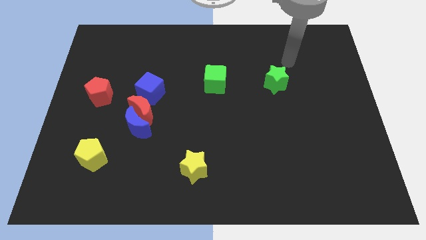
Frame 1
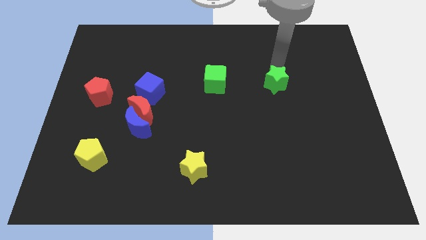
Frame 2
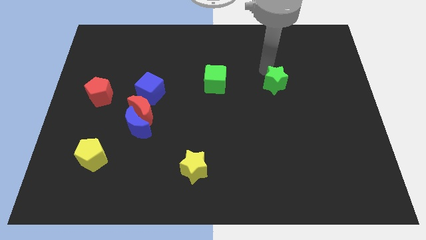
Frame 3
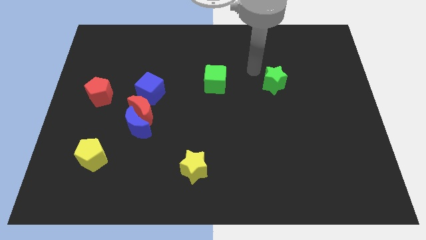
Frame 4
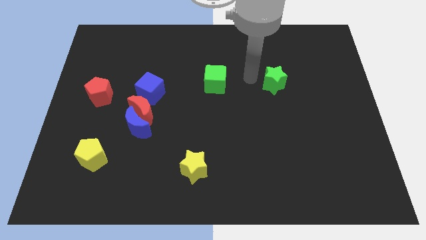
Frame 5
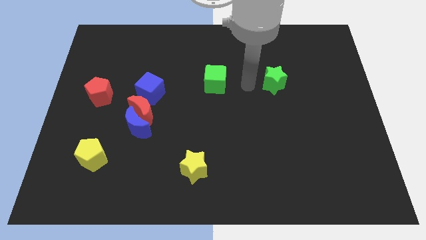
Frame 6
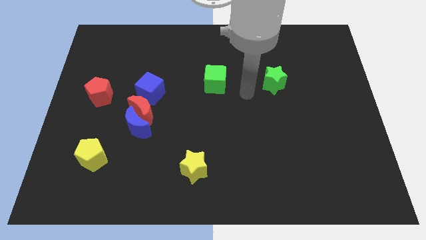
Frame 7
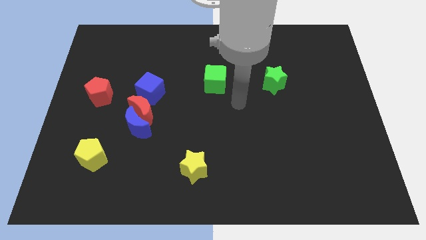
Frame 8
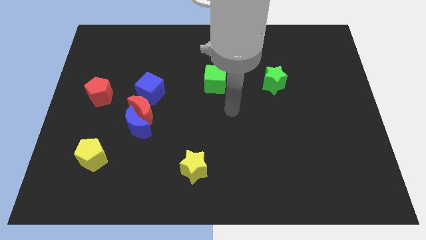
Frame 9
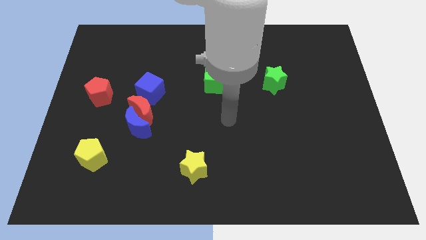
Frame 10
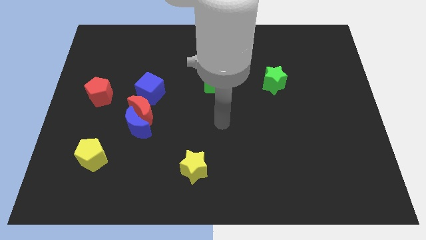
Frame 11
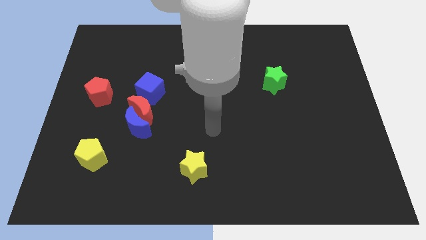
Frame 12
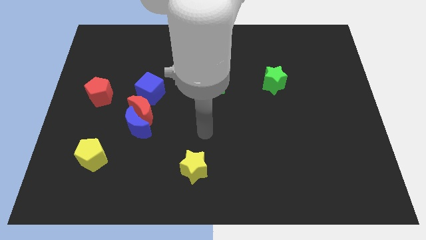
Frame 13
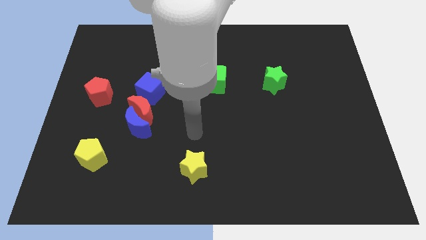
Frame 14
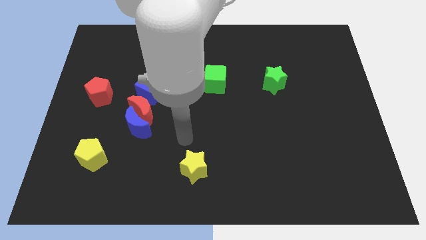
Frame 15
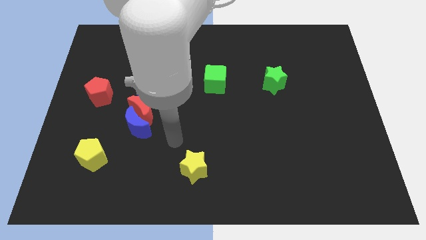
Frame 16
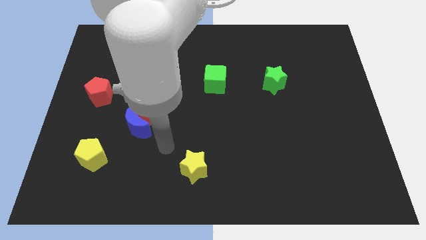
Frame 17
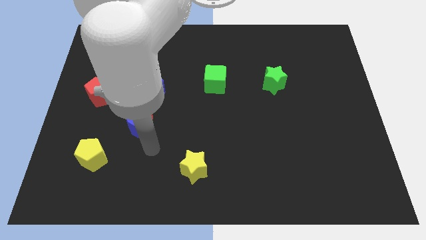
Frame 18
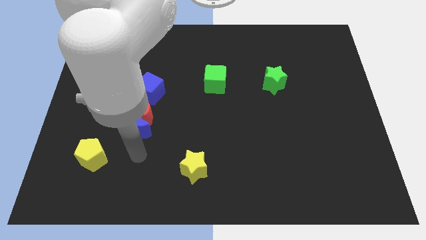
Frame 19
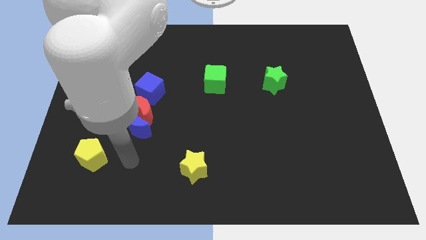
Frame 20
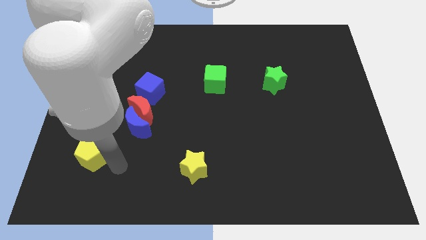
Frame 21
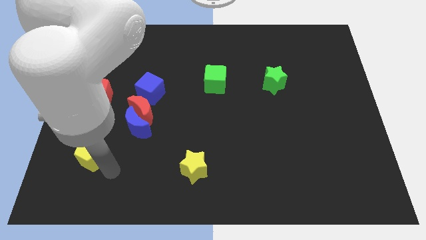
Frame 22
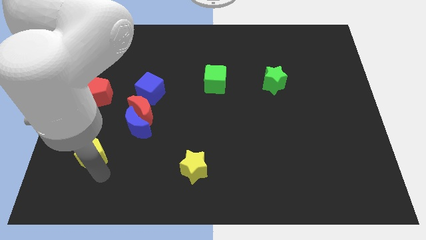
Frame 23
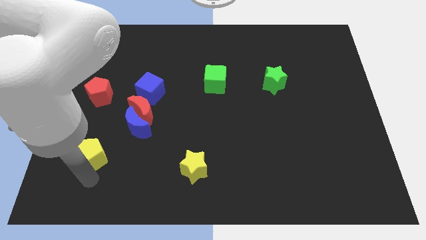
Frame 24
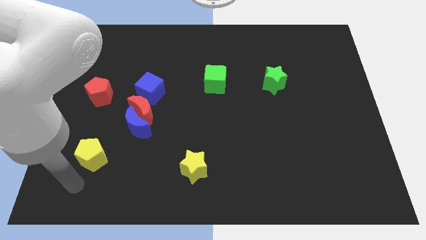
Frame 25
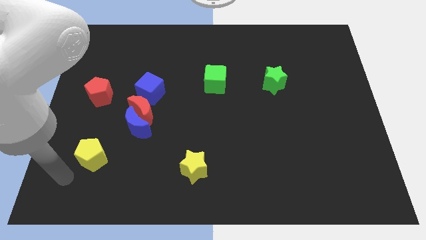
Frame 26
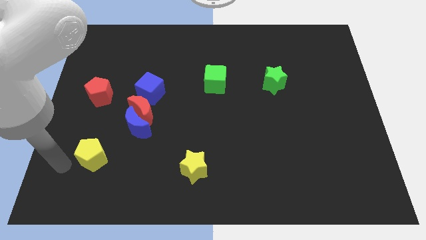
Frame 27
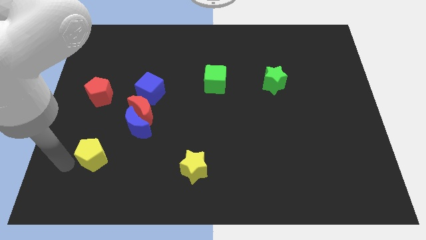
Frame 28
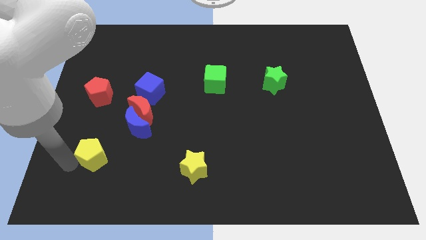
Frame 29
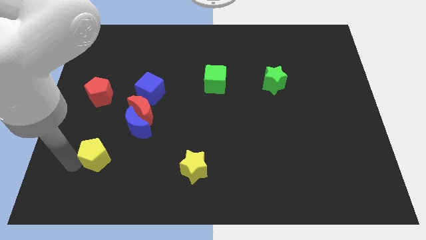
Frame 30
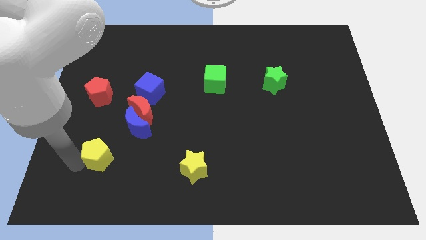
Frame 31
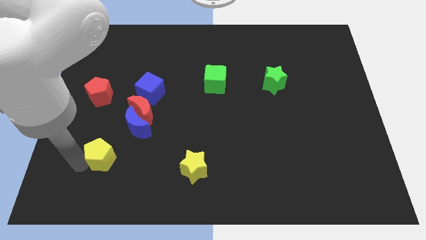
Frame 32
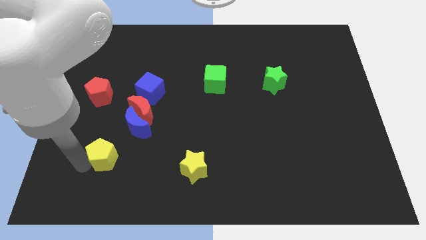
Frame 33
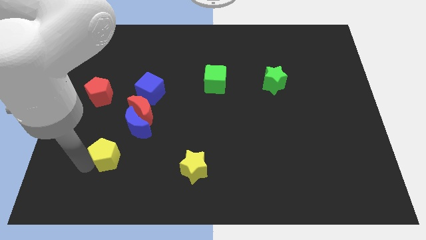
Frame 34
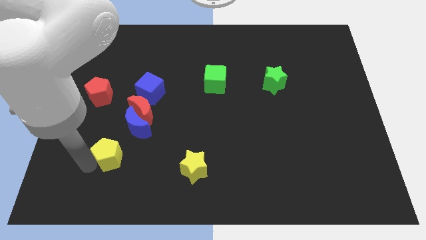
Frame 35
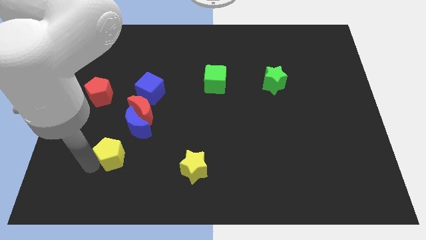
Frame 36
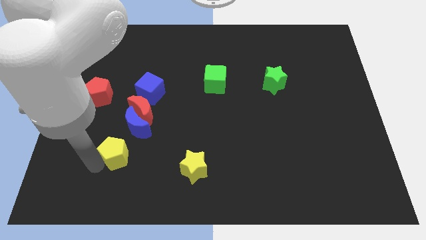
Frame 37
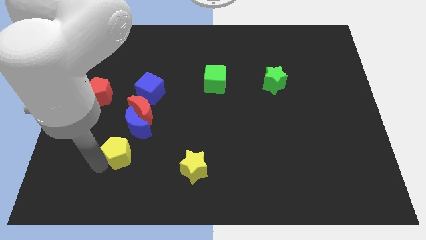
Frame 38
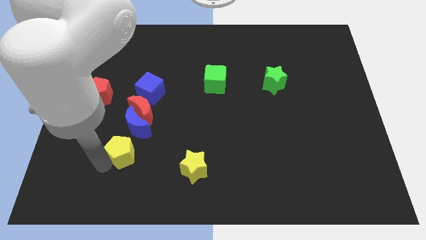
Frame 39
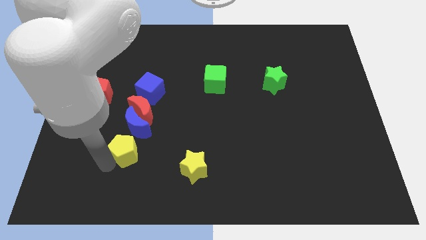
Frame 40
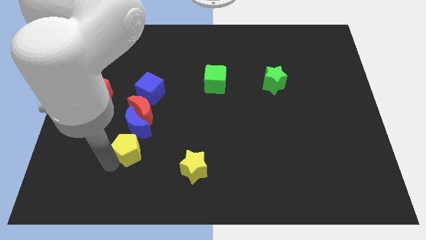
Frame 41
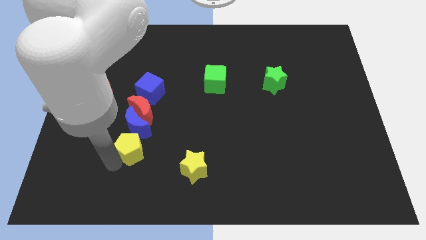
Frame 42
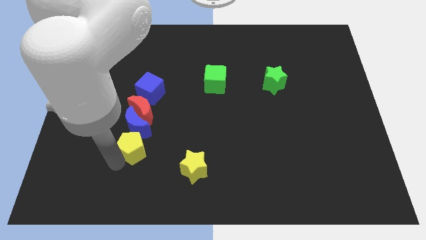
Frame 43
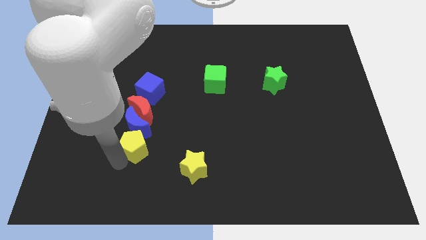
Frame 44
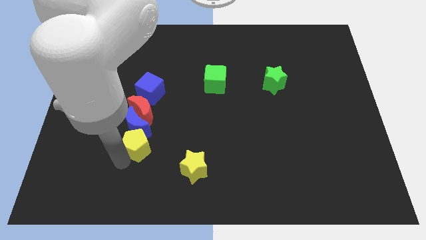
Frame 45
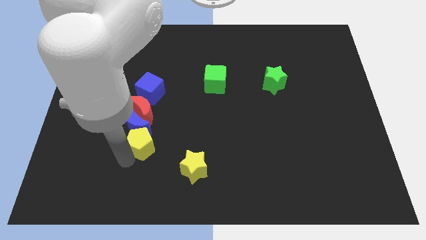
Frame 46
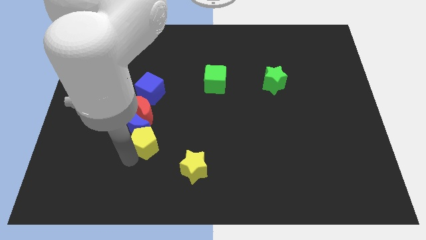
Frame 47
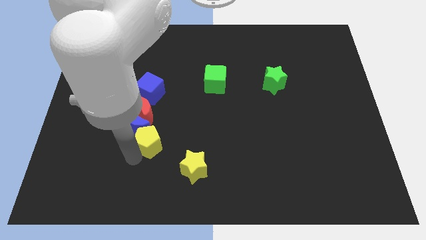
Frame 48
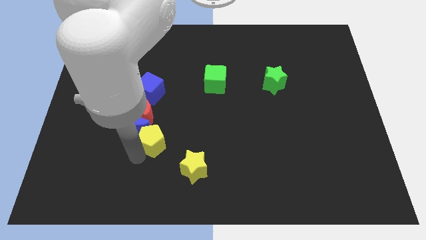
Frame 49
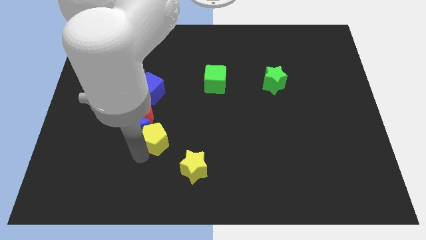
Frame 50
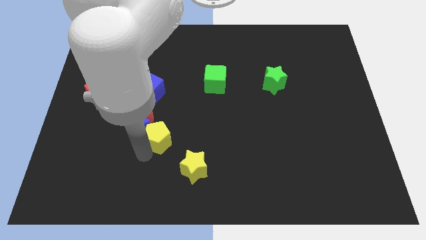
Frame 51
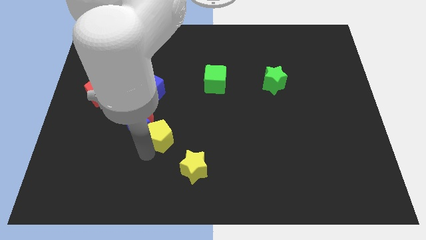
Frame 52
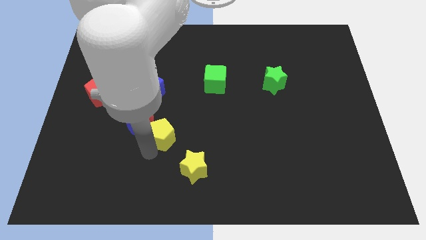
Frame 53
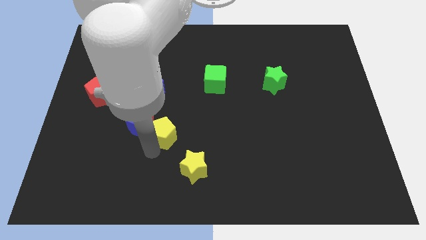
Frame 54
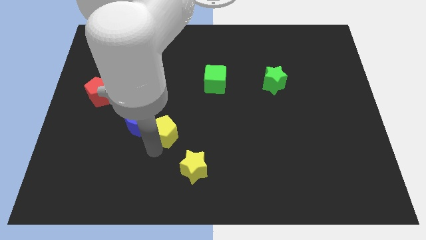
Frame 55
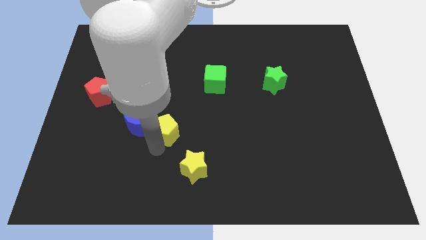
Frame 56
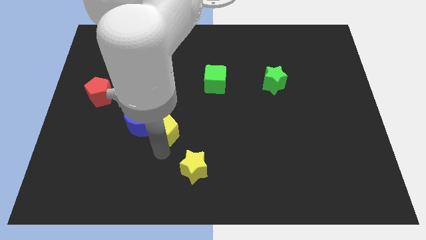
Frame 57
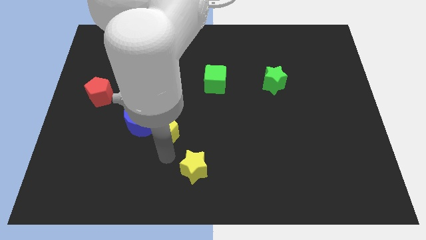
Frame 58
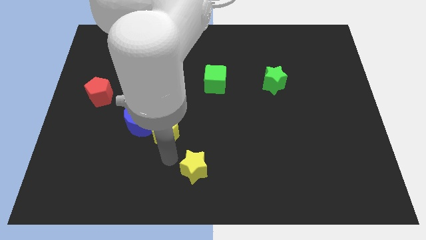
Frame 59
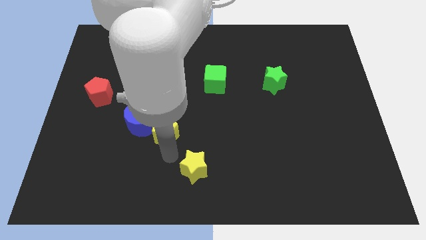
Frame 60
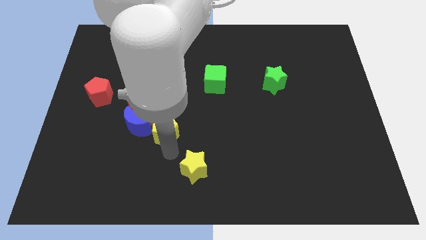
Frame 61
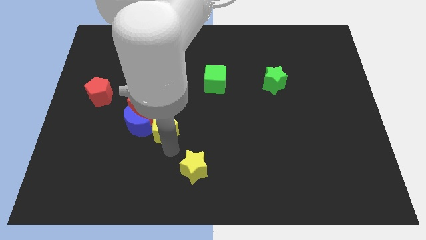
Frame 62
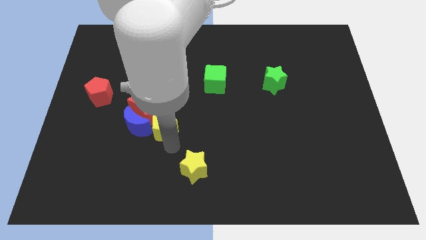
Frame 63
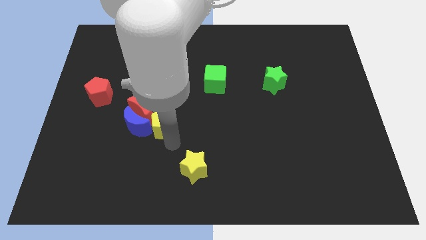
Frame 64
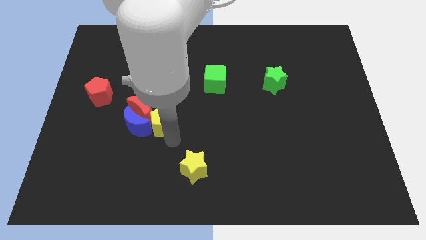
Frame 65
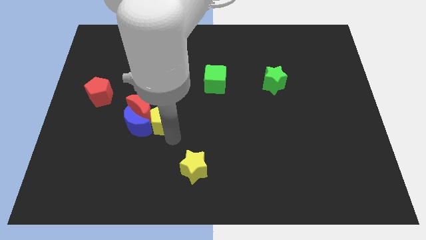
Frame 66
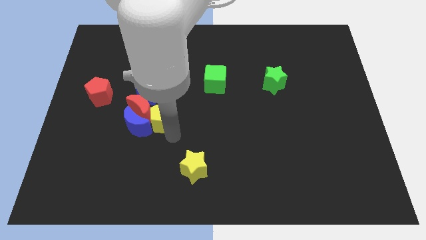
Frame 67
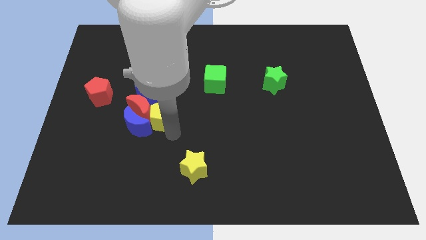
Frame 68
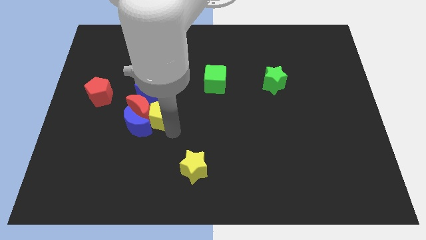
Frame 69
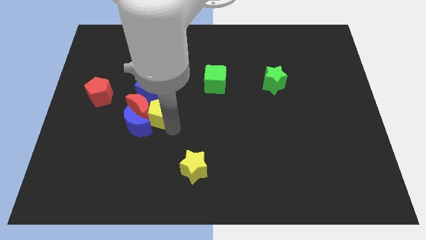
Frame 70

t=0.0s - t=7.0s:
move the yellow pentagon to the top right of the red moon
